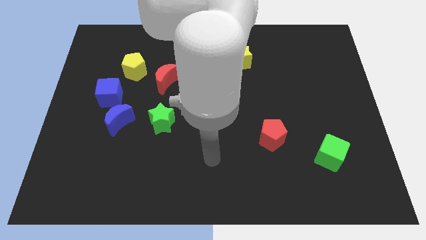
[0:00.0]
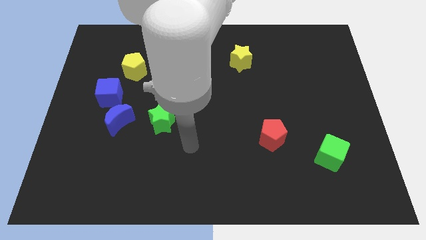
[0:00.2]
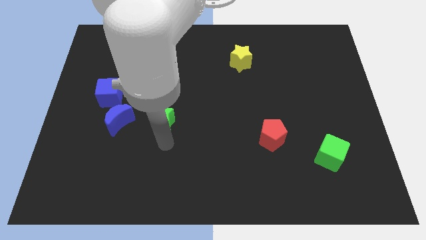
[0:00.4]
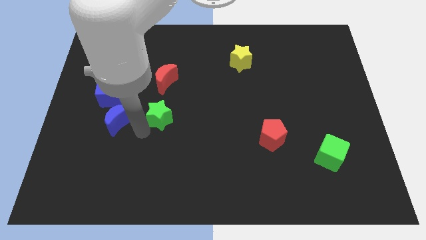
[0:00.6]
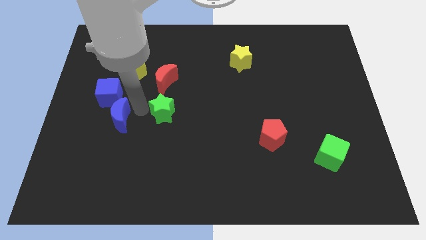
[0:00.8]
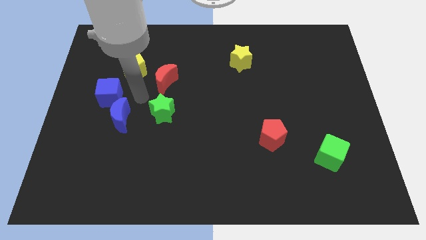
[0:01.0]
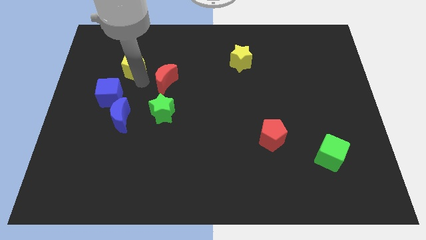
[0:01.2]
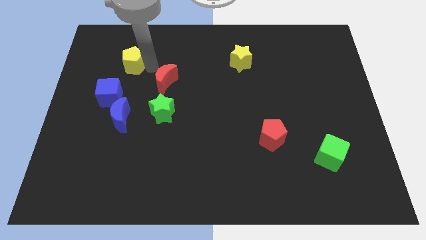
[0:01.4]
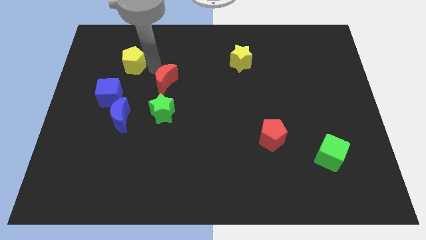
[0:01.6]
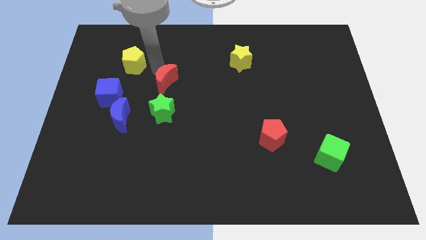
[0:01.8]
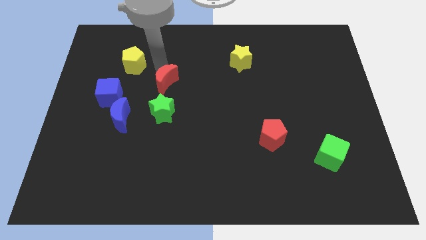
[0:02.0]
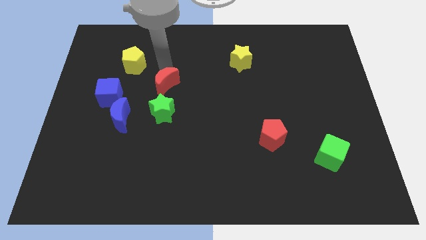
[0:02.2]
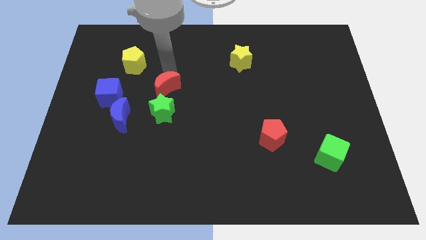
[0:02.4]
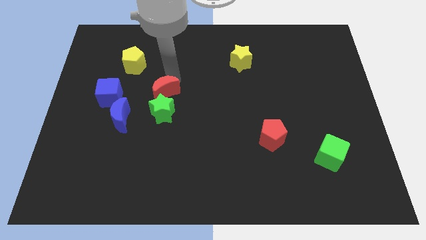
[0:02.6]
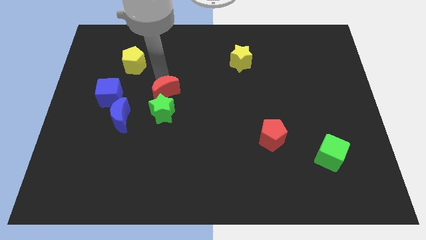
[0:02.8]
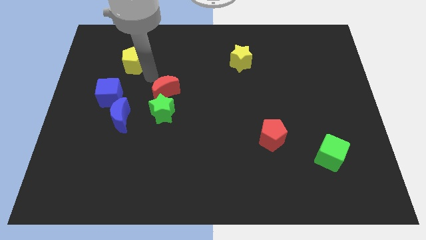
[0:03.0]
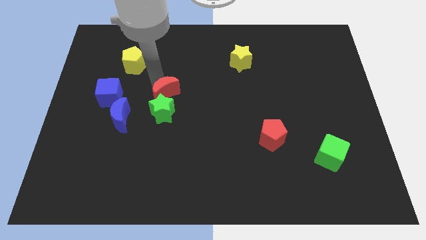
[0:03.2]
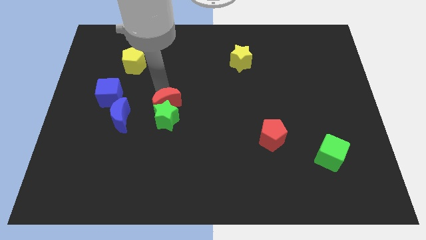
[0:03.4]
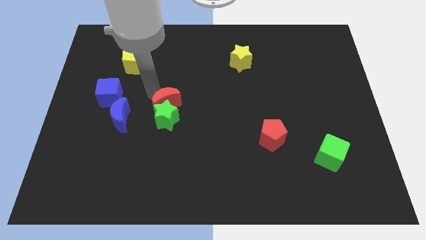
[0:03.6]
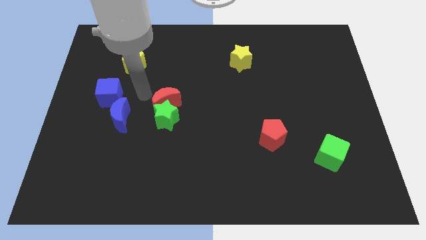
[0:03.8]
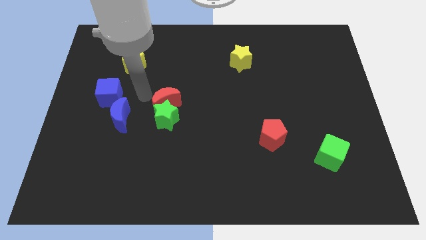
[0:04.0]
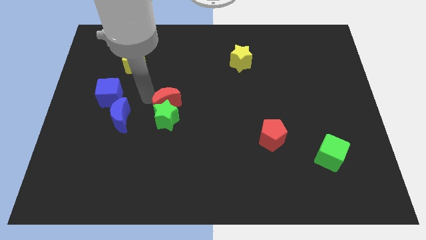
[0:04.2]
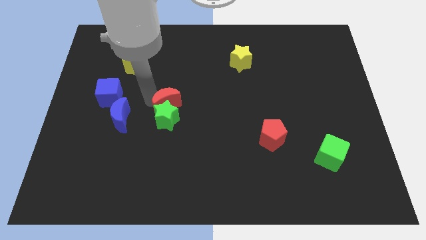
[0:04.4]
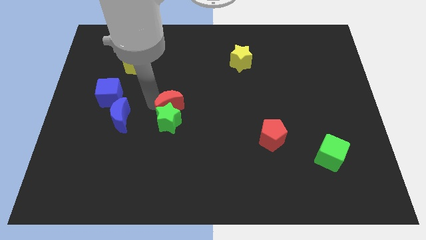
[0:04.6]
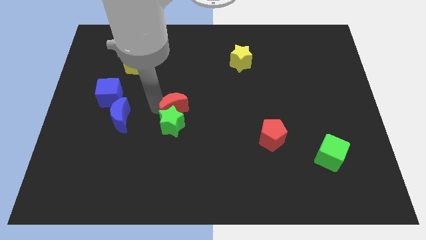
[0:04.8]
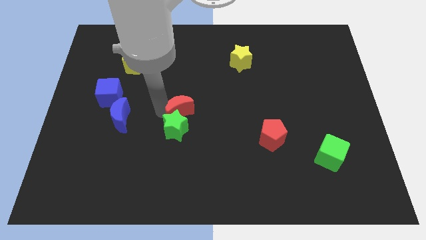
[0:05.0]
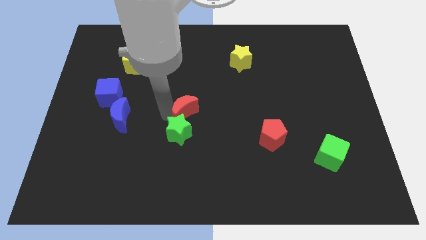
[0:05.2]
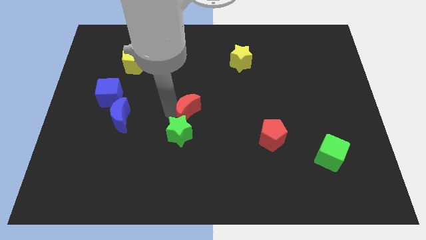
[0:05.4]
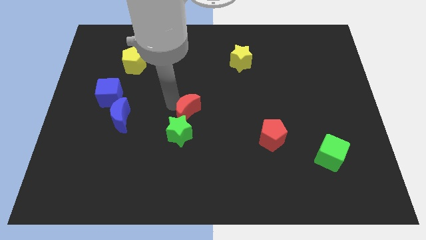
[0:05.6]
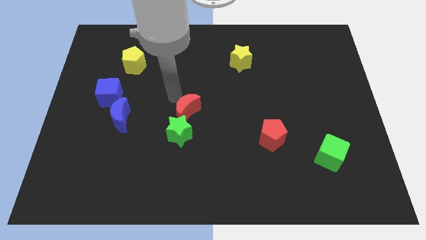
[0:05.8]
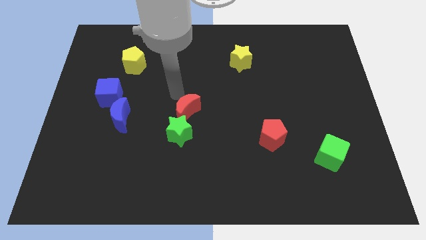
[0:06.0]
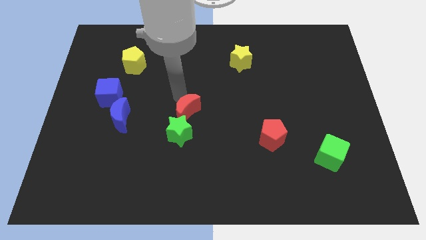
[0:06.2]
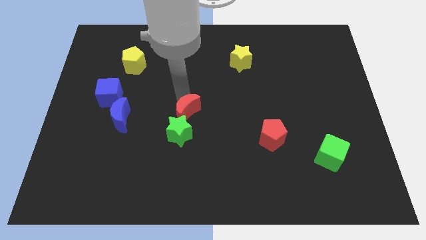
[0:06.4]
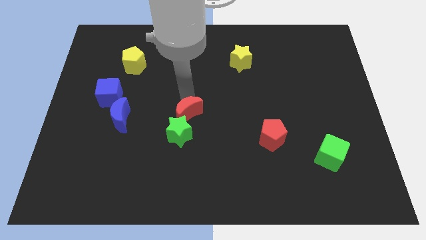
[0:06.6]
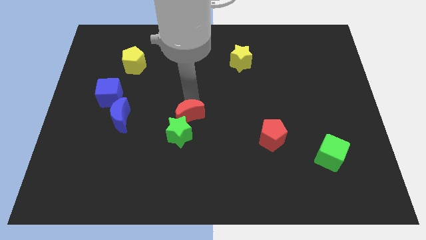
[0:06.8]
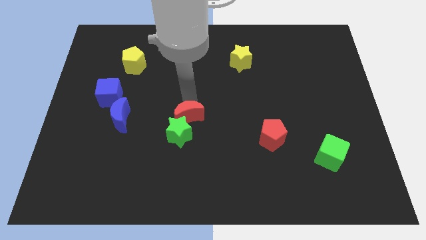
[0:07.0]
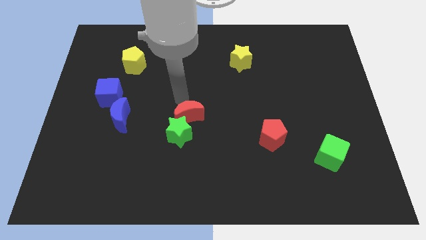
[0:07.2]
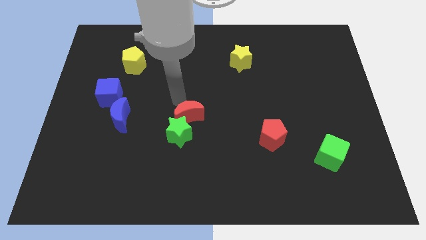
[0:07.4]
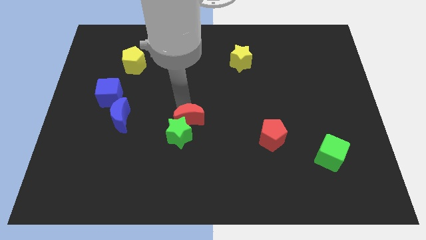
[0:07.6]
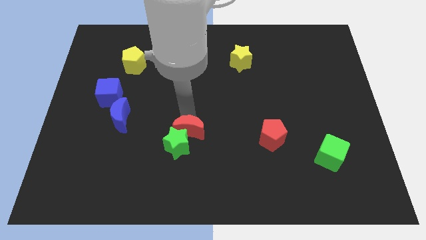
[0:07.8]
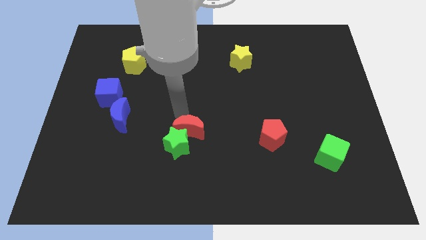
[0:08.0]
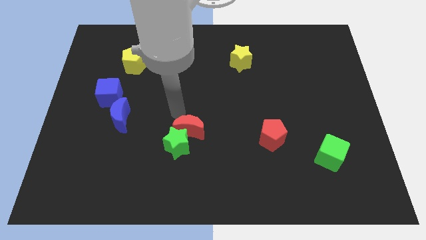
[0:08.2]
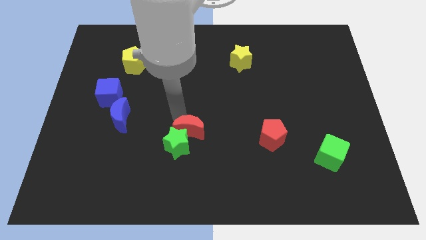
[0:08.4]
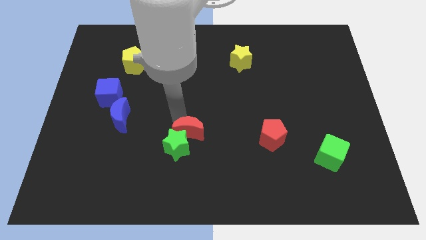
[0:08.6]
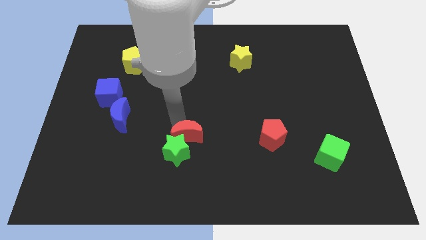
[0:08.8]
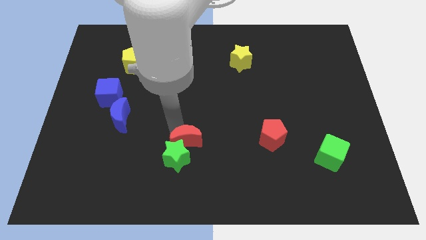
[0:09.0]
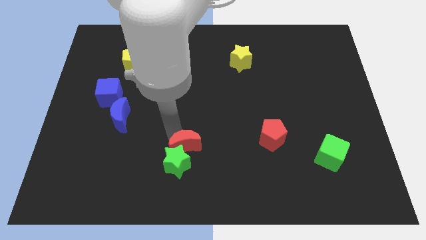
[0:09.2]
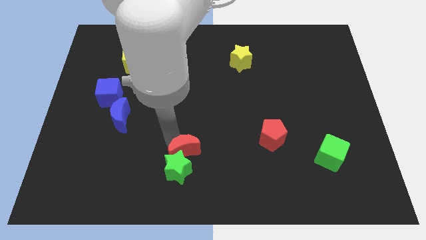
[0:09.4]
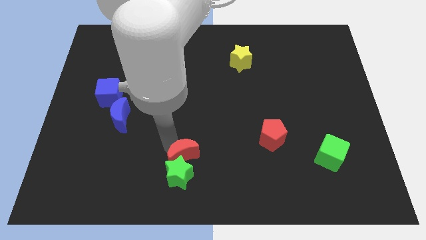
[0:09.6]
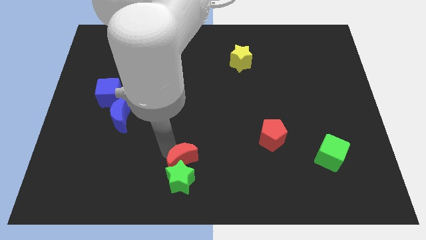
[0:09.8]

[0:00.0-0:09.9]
move the red moon to the bottom side

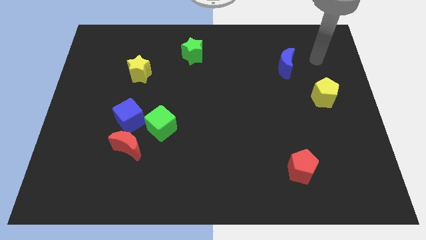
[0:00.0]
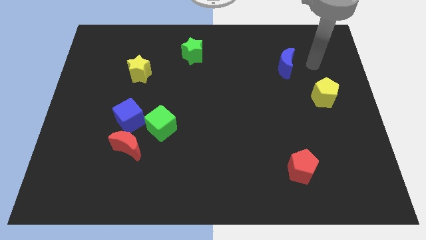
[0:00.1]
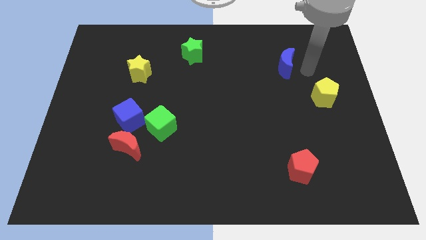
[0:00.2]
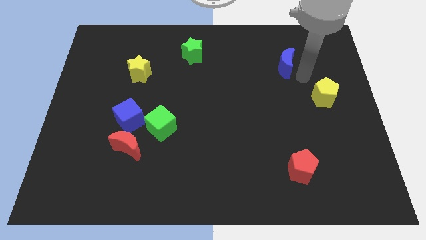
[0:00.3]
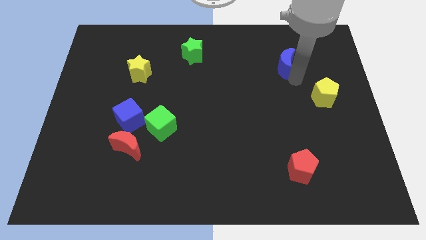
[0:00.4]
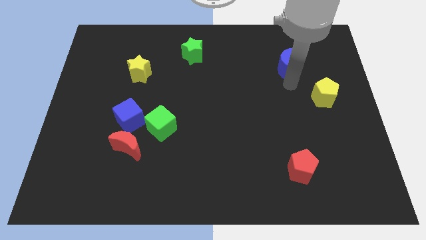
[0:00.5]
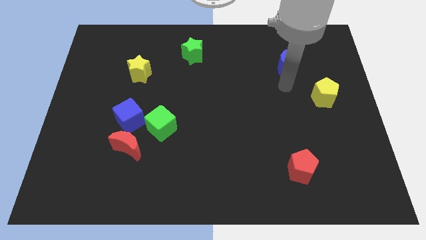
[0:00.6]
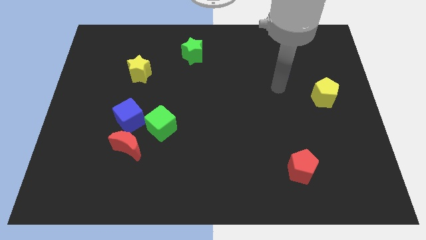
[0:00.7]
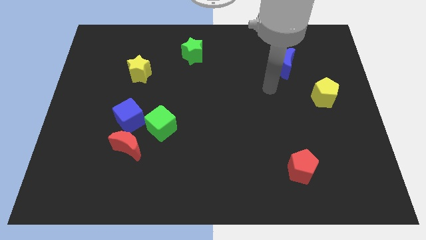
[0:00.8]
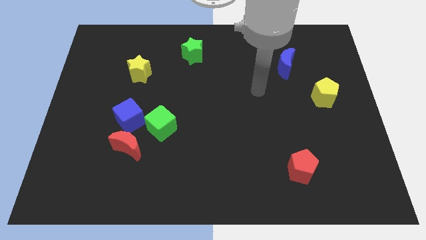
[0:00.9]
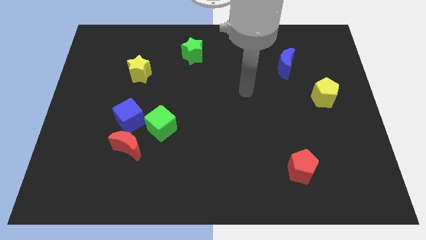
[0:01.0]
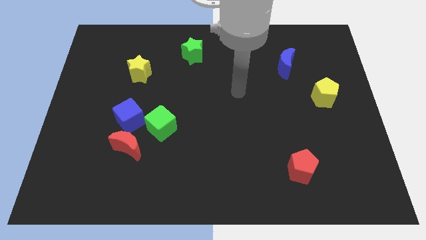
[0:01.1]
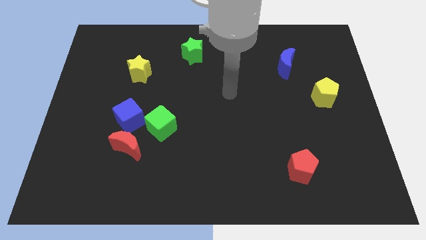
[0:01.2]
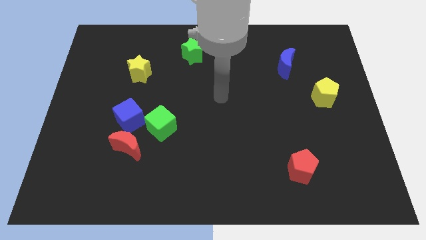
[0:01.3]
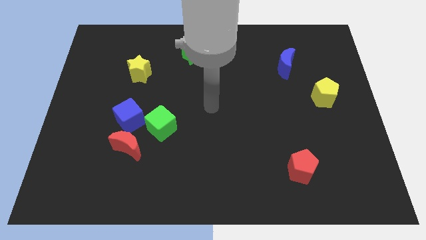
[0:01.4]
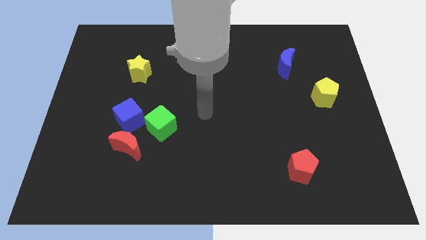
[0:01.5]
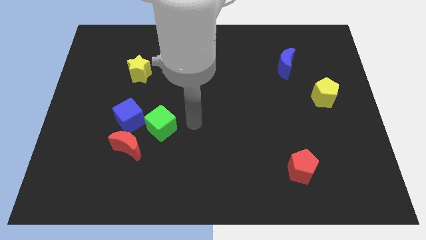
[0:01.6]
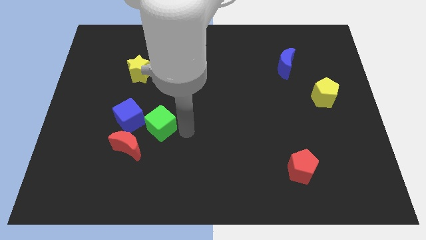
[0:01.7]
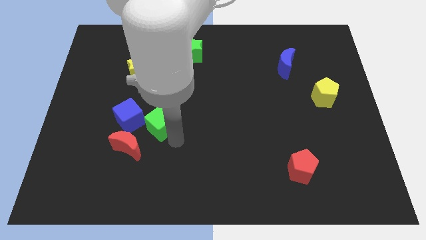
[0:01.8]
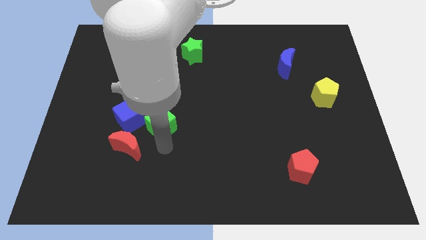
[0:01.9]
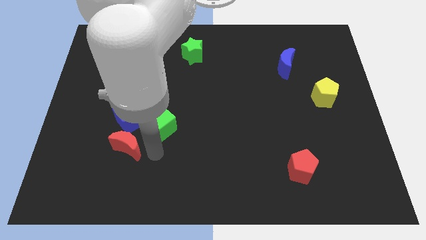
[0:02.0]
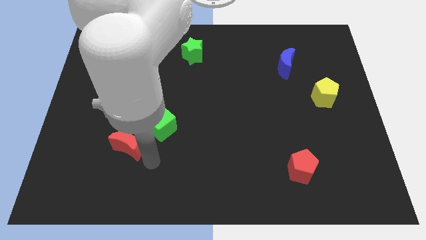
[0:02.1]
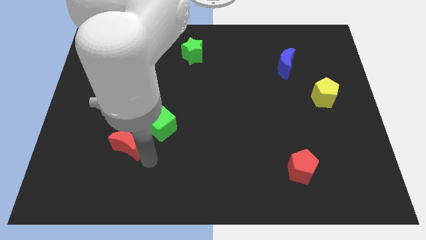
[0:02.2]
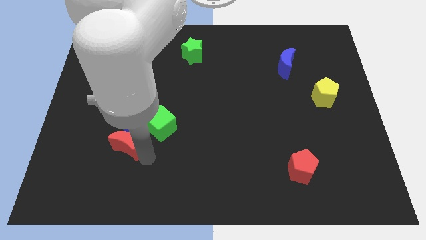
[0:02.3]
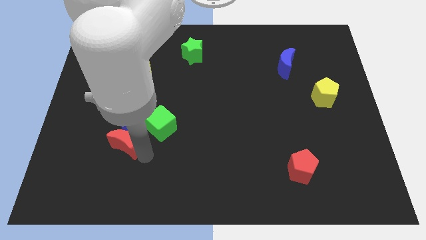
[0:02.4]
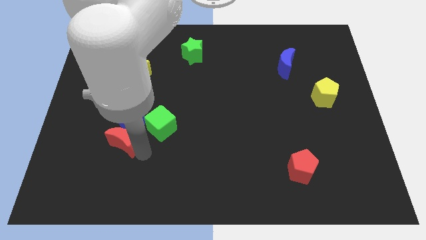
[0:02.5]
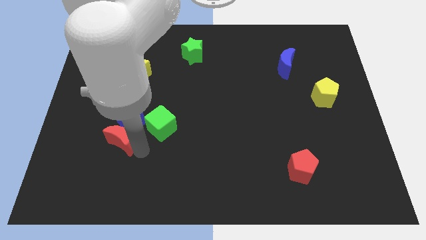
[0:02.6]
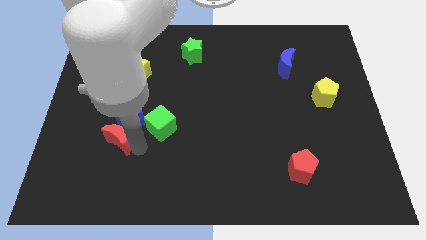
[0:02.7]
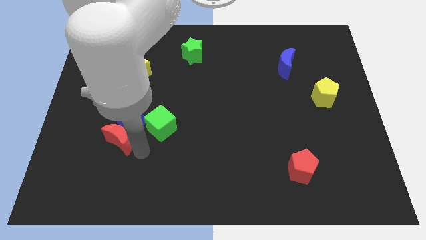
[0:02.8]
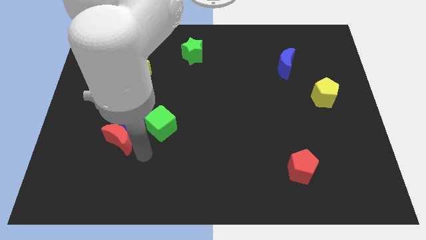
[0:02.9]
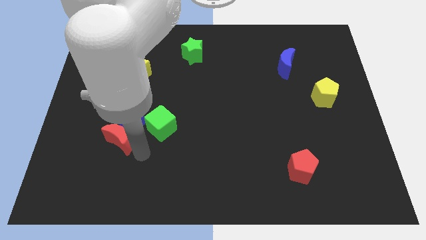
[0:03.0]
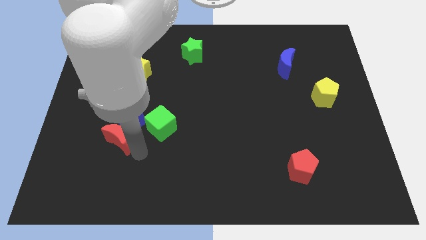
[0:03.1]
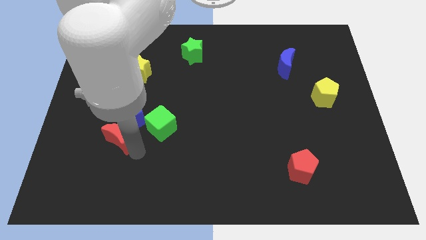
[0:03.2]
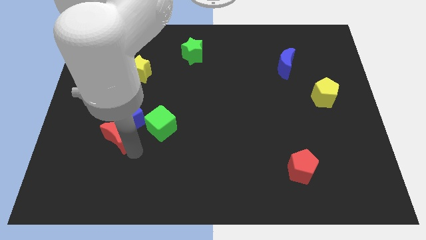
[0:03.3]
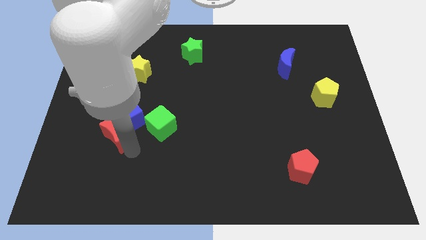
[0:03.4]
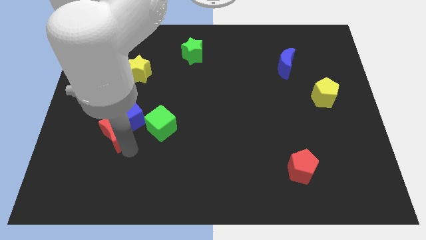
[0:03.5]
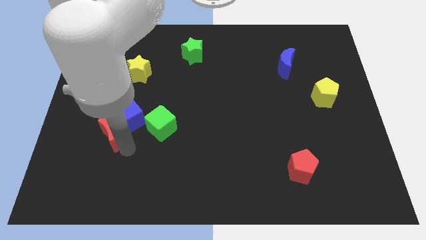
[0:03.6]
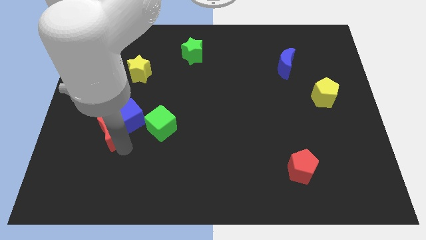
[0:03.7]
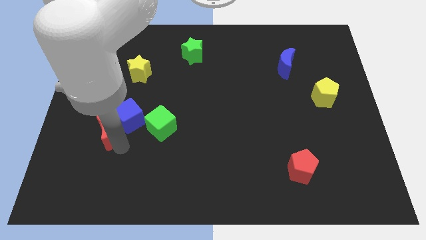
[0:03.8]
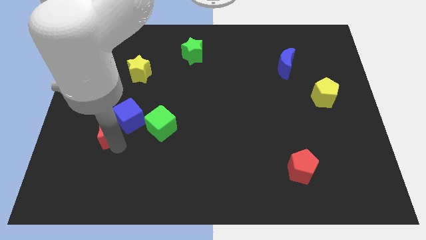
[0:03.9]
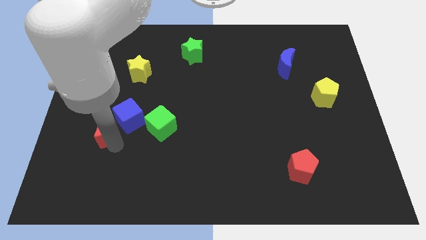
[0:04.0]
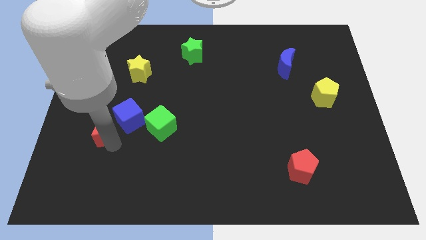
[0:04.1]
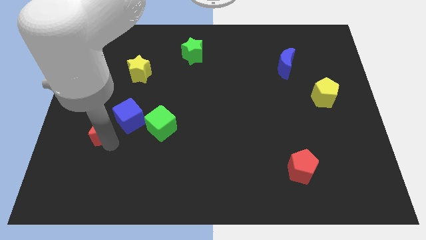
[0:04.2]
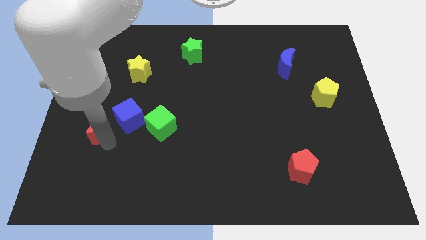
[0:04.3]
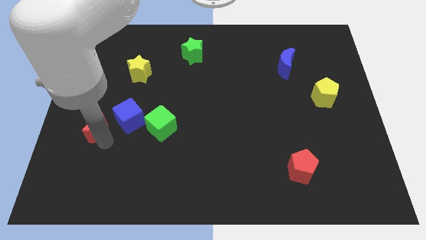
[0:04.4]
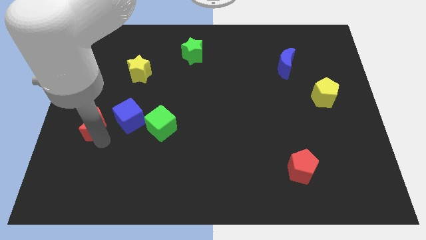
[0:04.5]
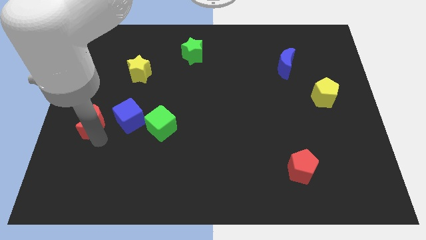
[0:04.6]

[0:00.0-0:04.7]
move the red moon to the left side of the board
